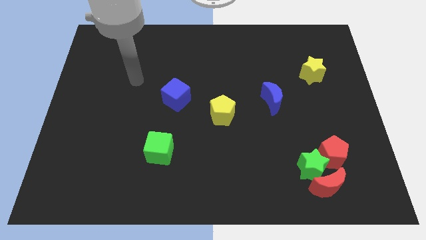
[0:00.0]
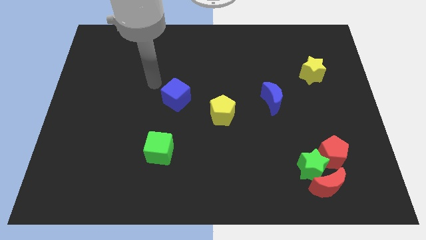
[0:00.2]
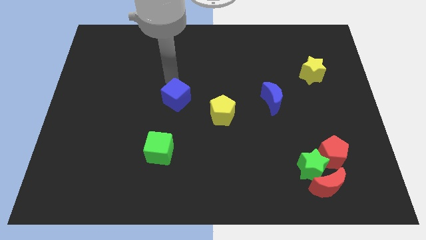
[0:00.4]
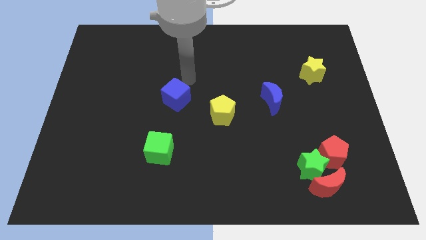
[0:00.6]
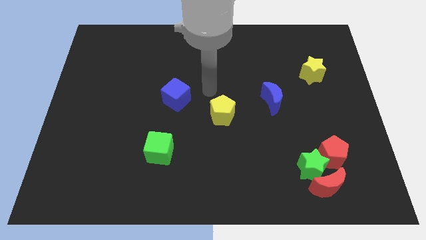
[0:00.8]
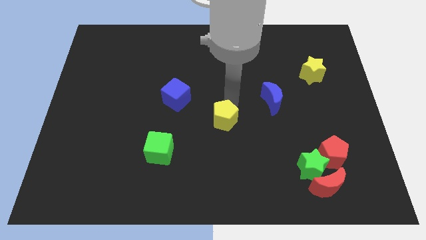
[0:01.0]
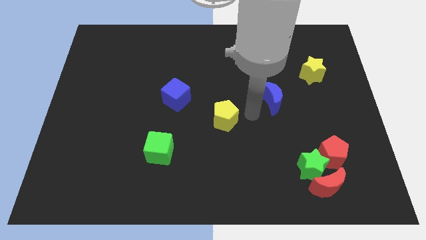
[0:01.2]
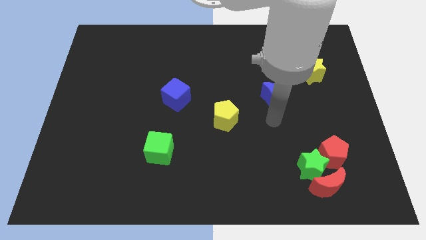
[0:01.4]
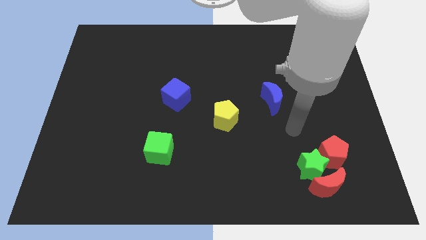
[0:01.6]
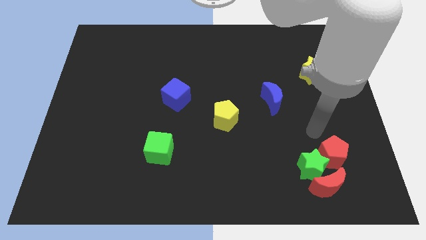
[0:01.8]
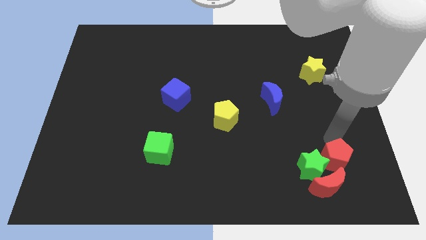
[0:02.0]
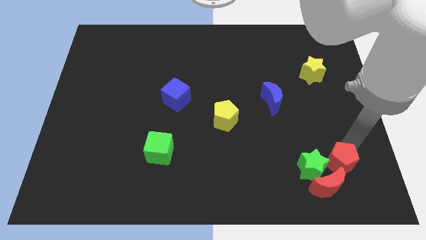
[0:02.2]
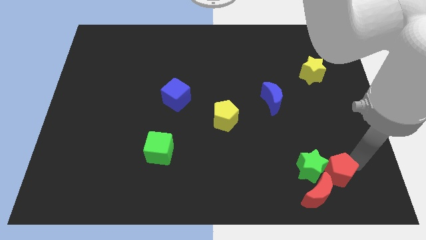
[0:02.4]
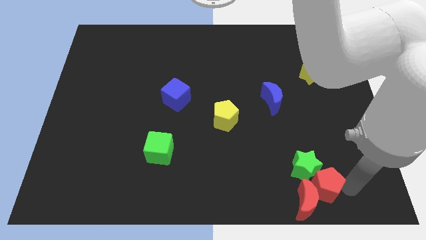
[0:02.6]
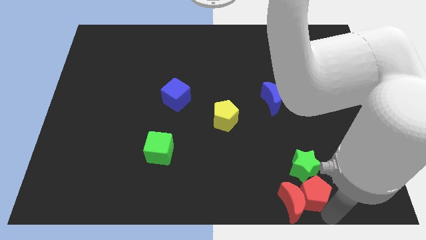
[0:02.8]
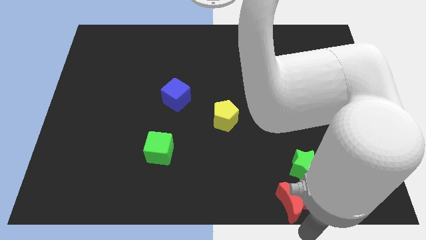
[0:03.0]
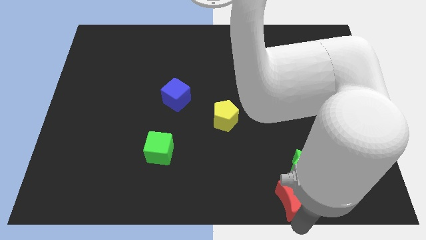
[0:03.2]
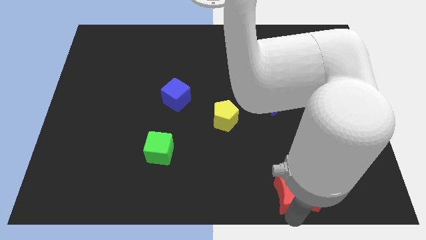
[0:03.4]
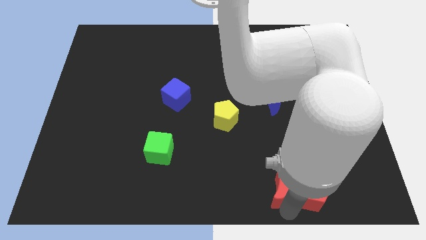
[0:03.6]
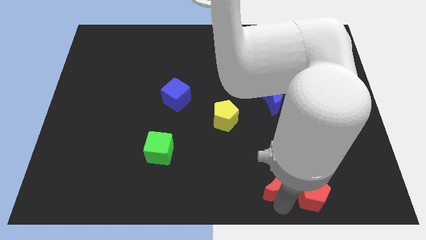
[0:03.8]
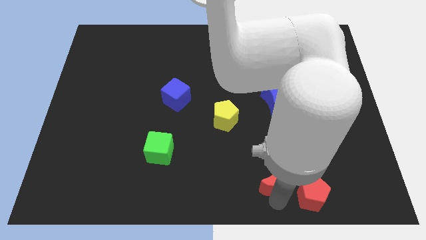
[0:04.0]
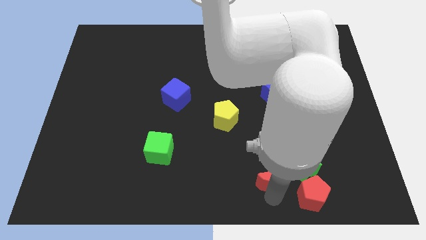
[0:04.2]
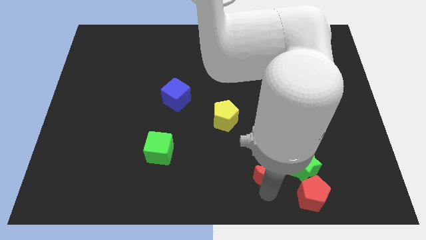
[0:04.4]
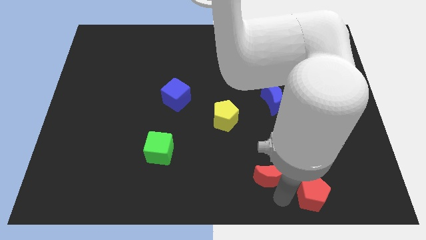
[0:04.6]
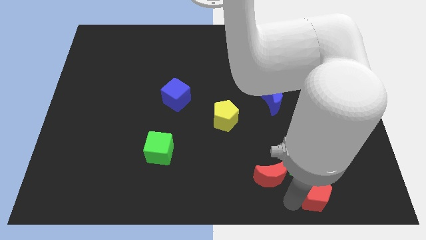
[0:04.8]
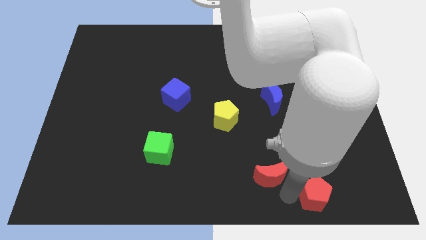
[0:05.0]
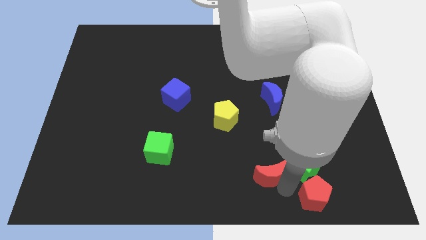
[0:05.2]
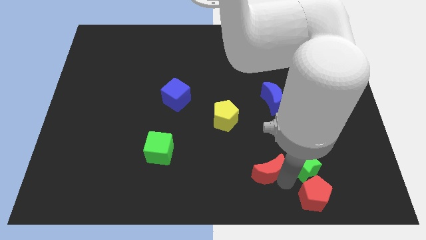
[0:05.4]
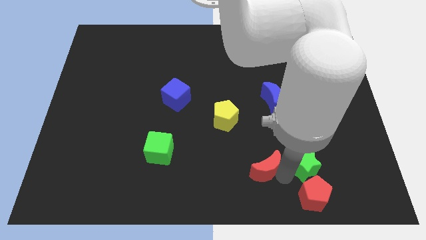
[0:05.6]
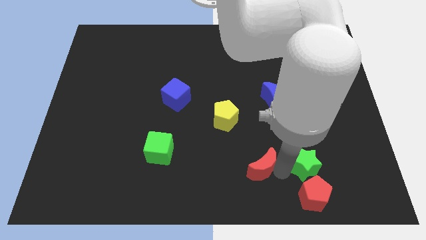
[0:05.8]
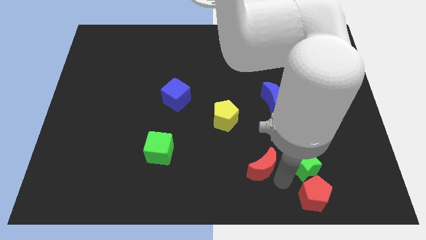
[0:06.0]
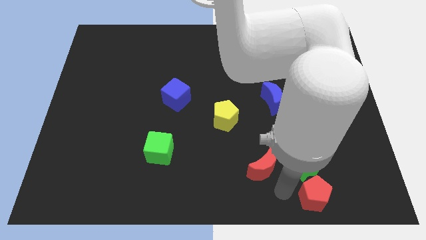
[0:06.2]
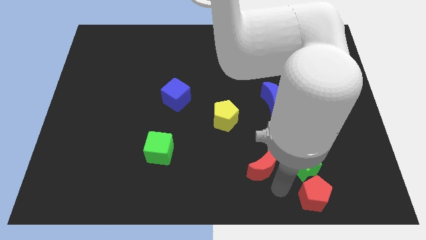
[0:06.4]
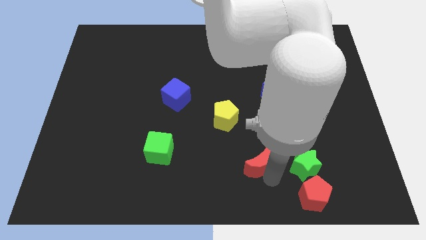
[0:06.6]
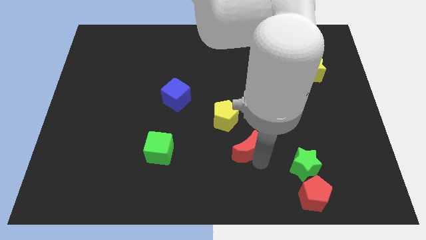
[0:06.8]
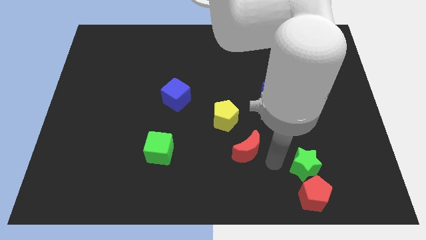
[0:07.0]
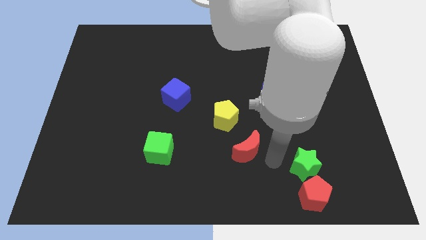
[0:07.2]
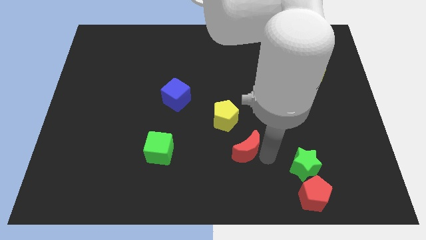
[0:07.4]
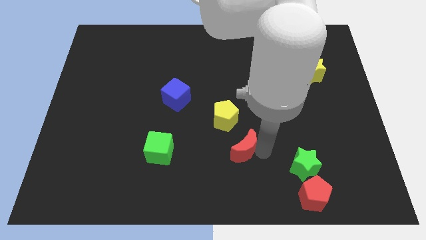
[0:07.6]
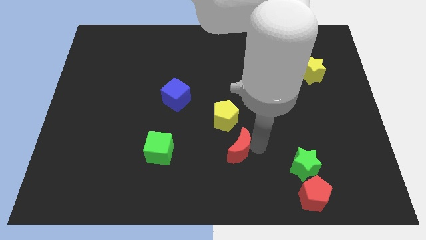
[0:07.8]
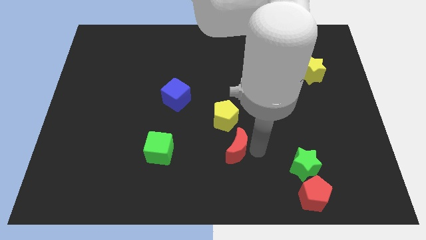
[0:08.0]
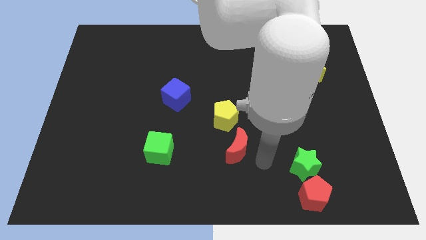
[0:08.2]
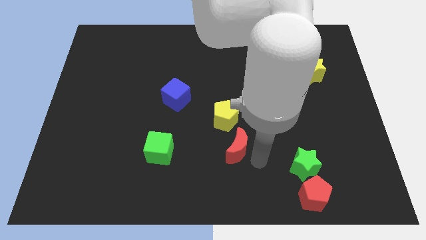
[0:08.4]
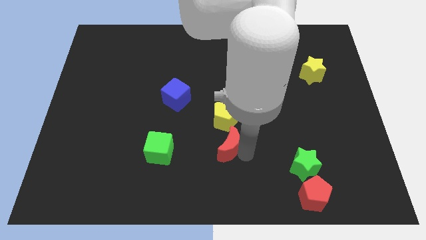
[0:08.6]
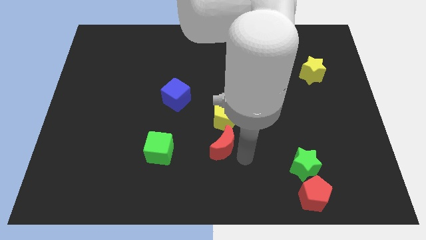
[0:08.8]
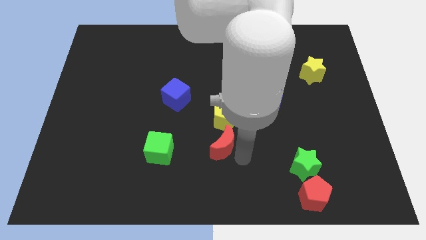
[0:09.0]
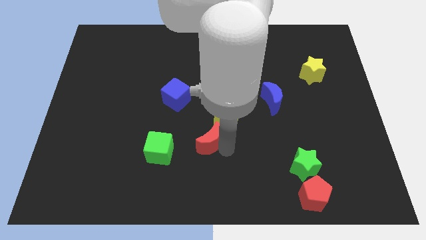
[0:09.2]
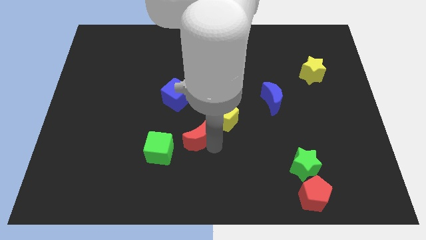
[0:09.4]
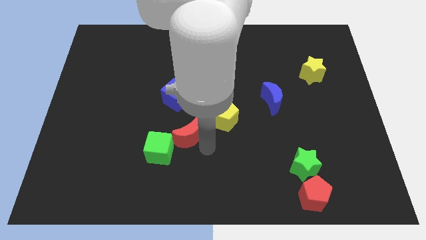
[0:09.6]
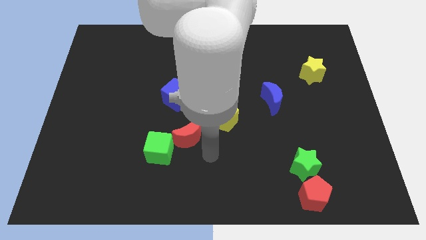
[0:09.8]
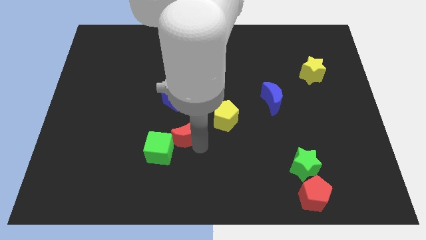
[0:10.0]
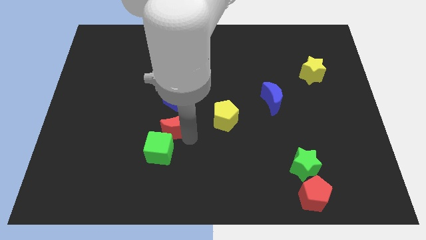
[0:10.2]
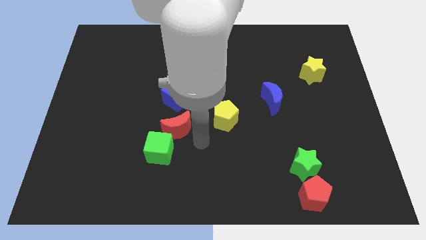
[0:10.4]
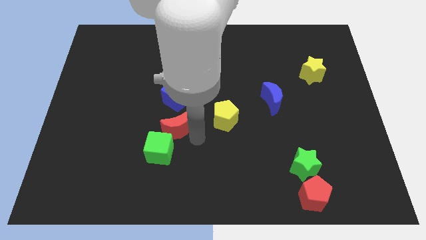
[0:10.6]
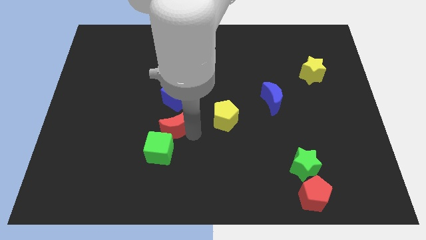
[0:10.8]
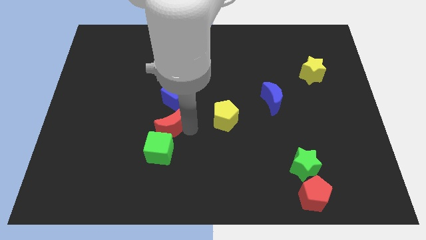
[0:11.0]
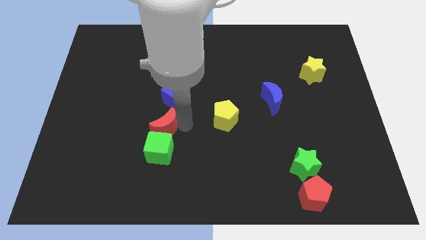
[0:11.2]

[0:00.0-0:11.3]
push the red moon diagonally down and to the left of the blue cube

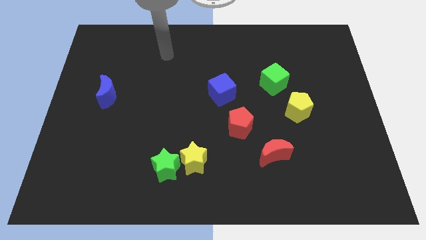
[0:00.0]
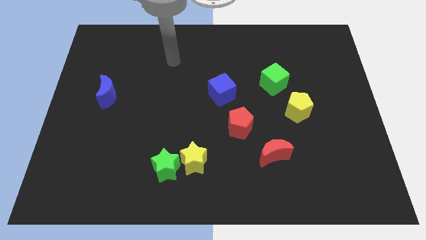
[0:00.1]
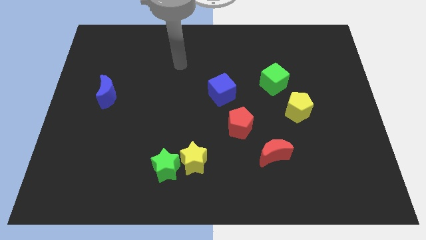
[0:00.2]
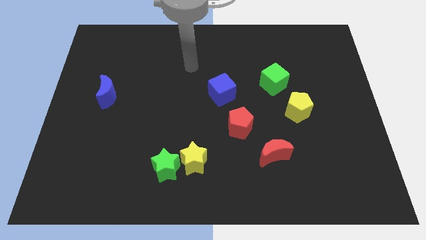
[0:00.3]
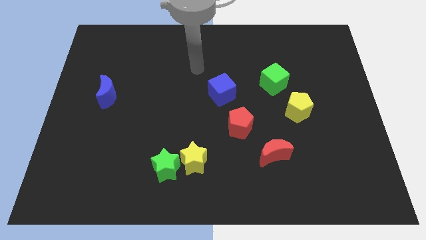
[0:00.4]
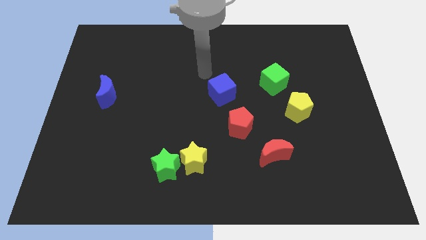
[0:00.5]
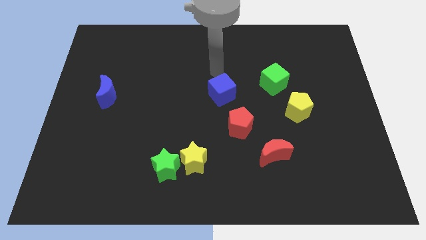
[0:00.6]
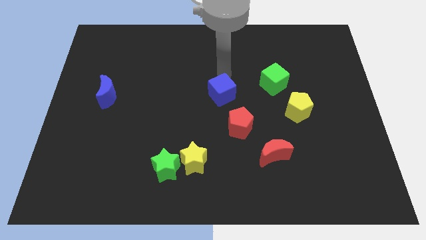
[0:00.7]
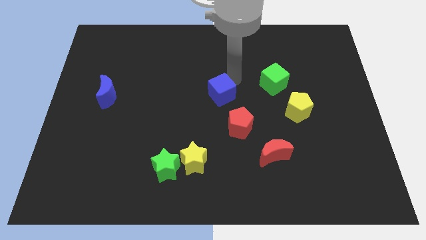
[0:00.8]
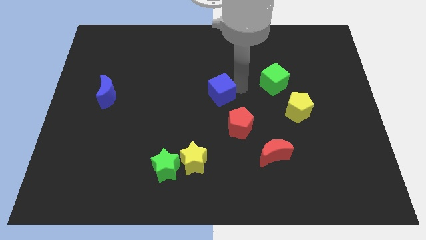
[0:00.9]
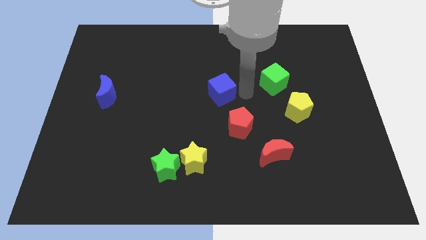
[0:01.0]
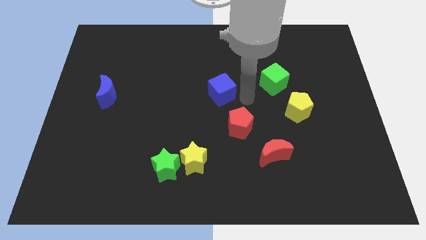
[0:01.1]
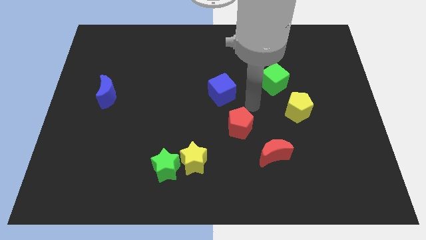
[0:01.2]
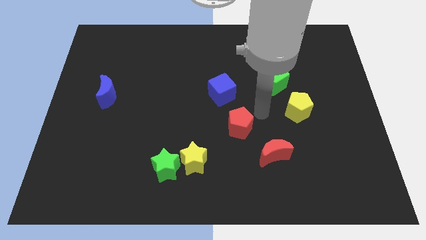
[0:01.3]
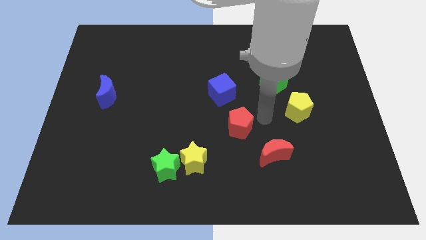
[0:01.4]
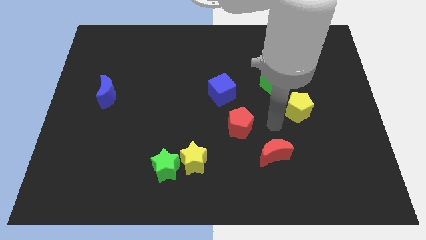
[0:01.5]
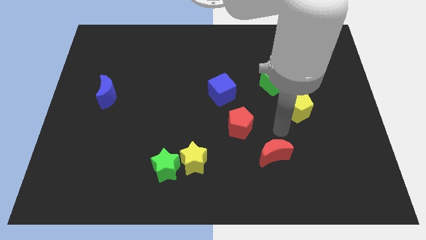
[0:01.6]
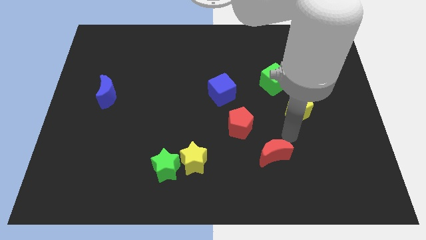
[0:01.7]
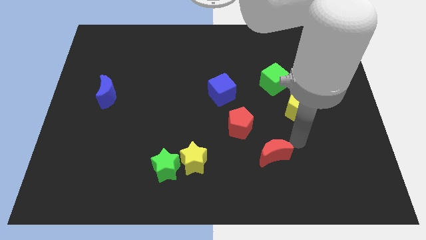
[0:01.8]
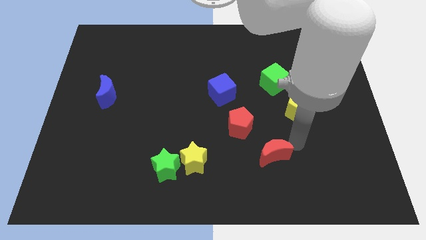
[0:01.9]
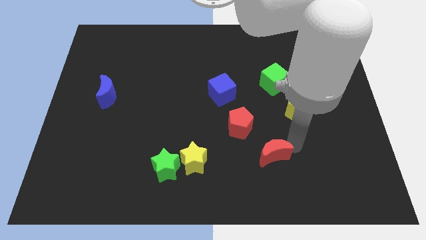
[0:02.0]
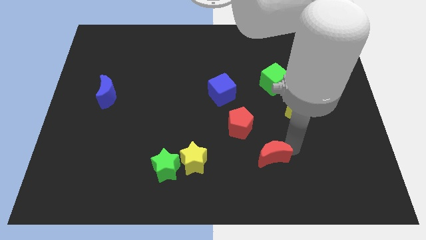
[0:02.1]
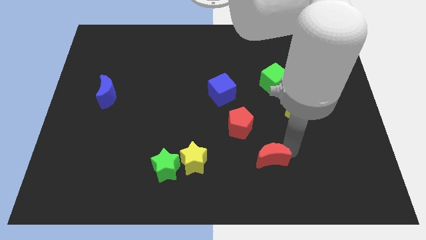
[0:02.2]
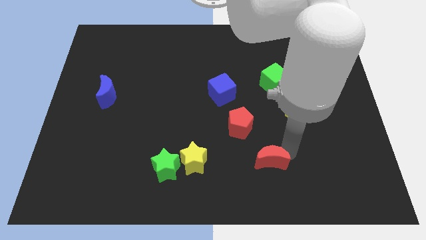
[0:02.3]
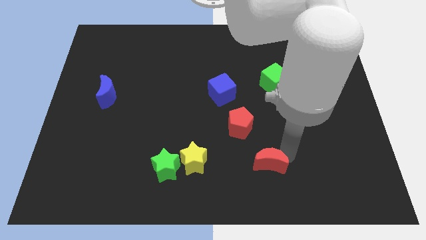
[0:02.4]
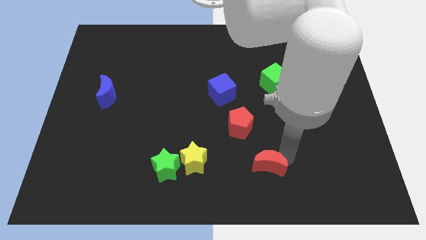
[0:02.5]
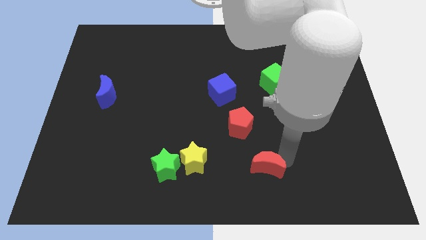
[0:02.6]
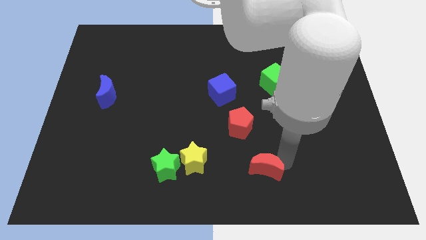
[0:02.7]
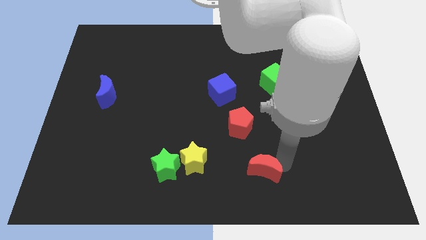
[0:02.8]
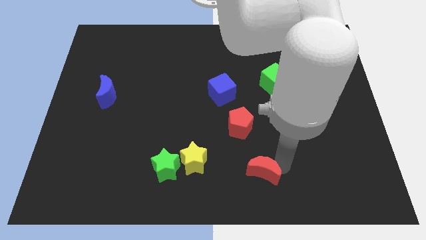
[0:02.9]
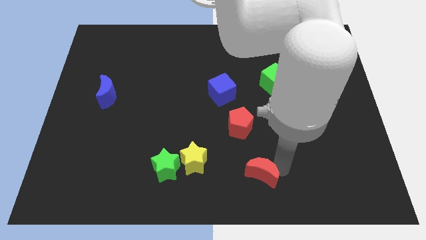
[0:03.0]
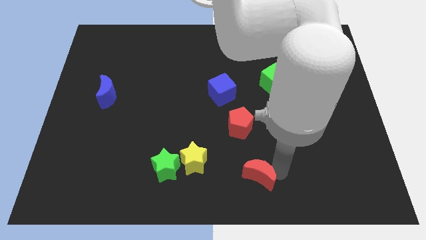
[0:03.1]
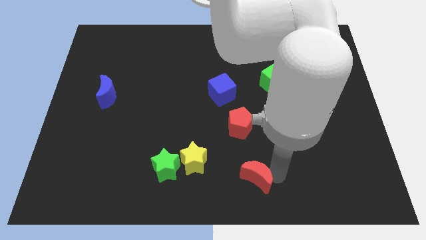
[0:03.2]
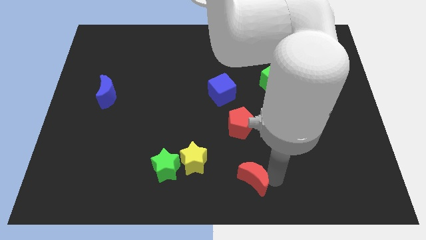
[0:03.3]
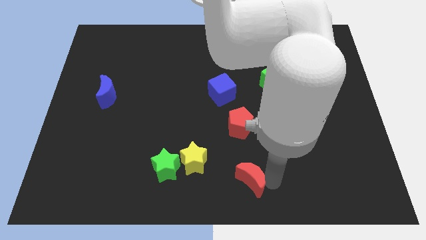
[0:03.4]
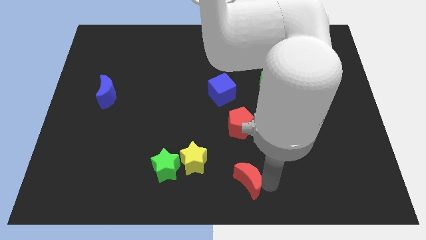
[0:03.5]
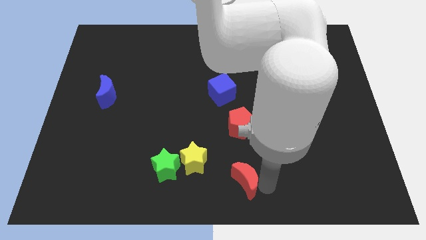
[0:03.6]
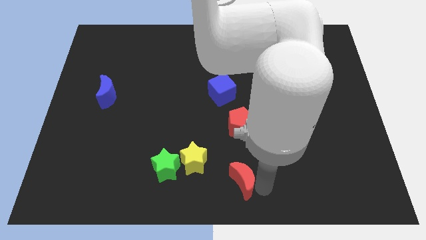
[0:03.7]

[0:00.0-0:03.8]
move the red moon diagonally down and to the right of the yellow star
